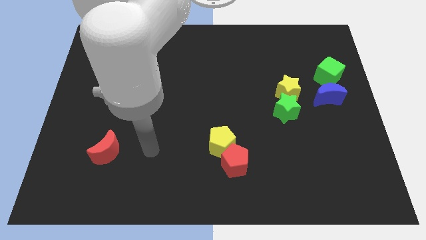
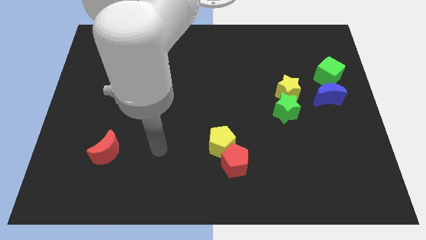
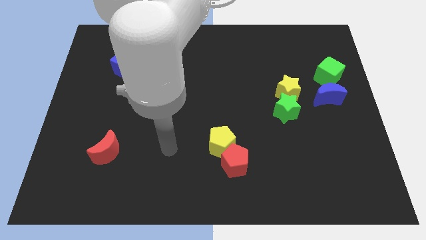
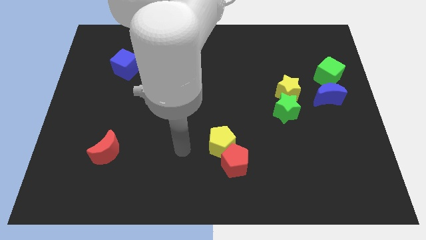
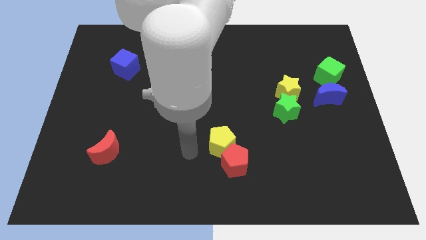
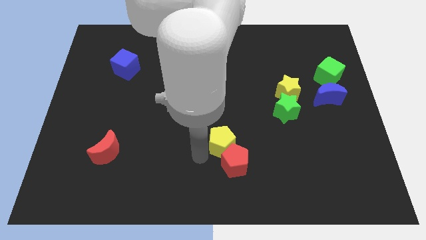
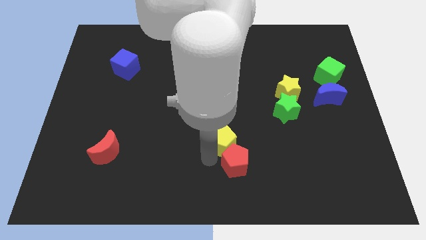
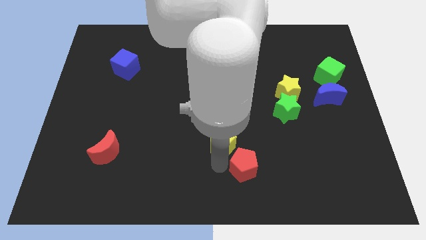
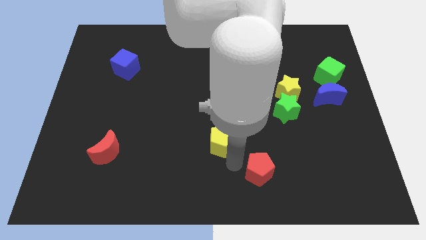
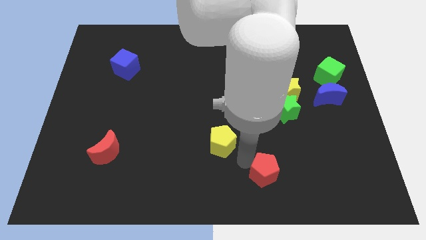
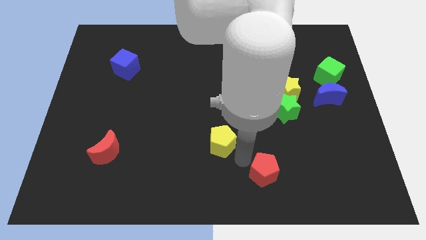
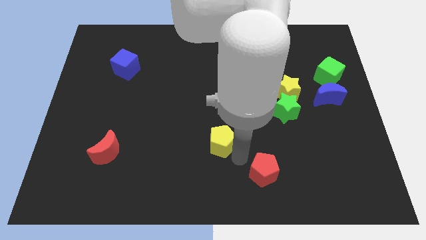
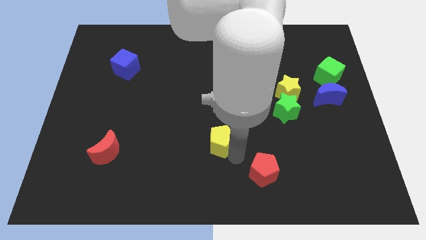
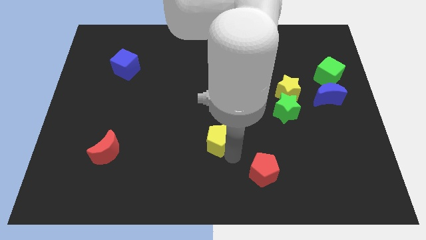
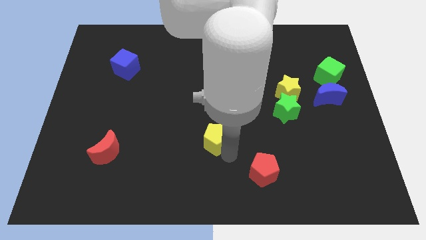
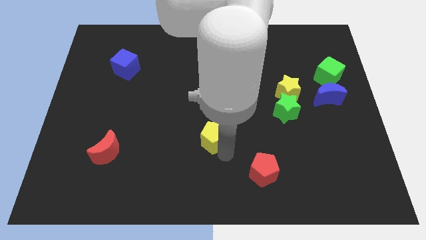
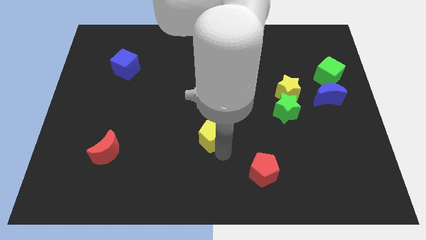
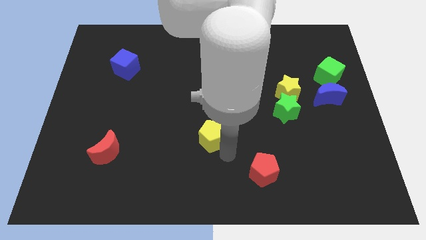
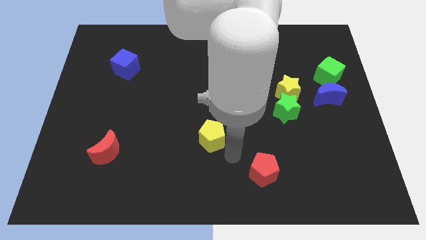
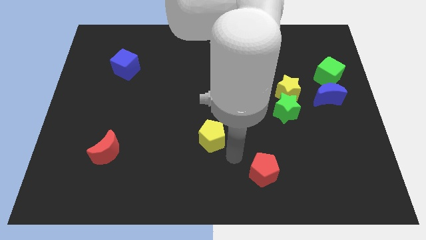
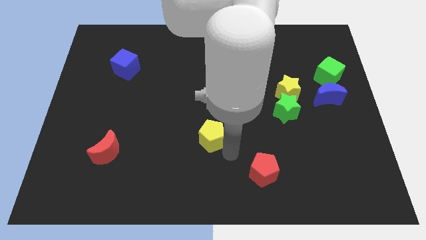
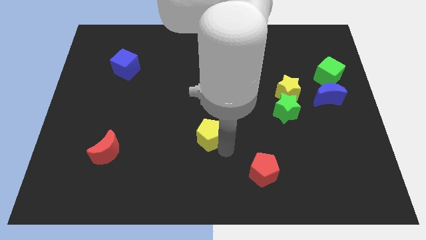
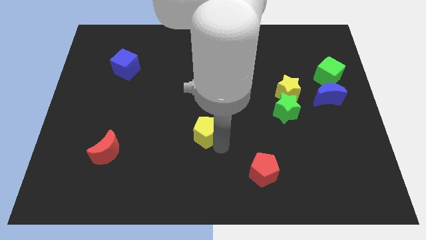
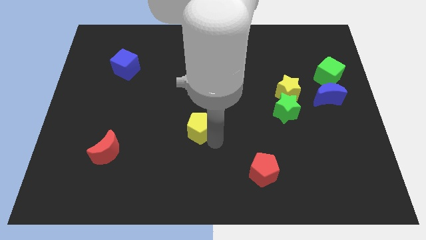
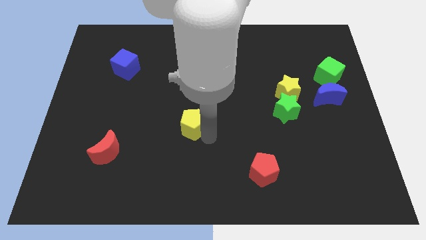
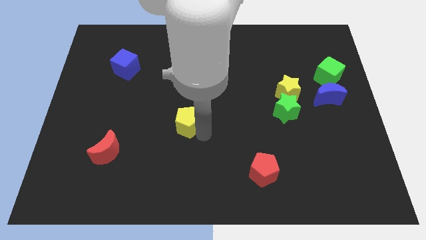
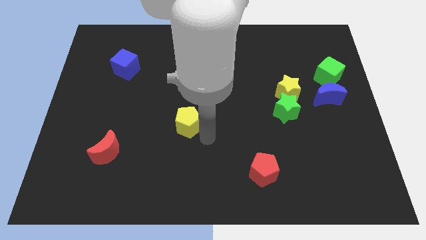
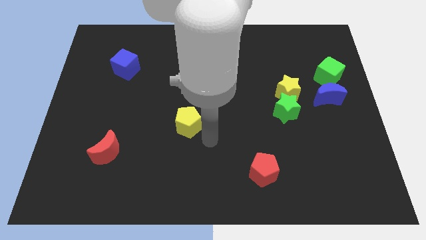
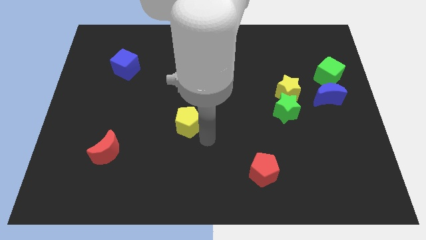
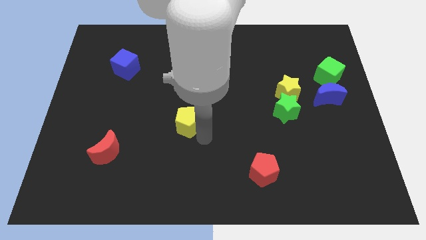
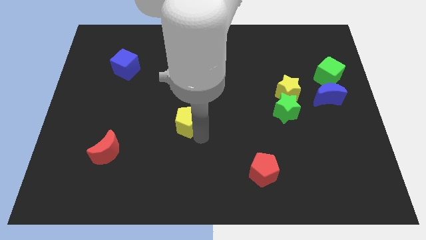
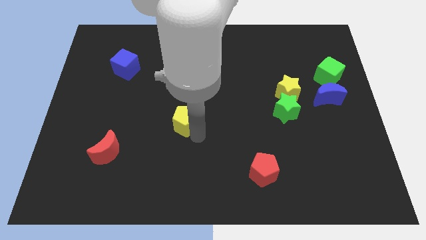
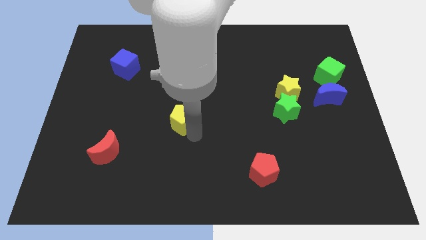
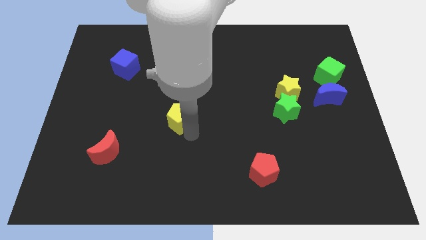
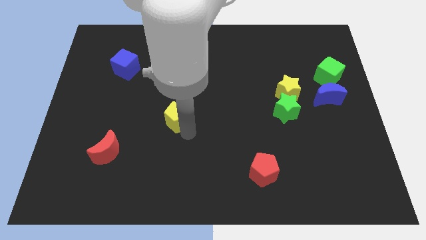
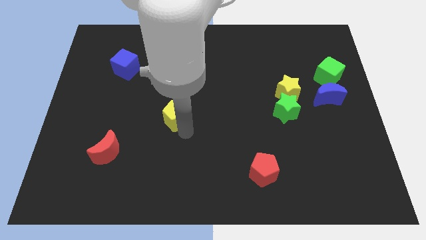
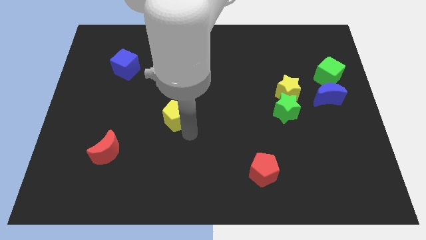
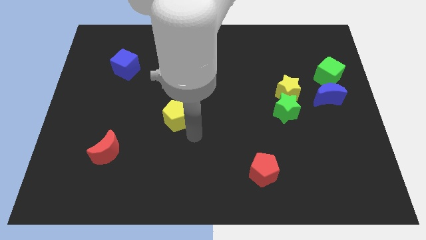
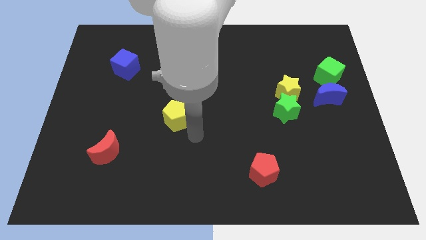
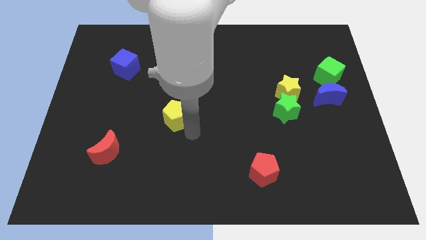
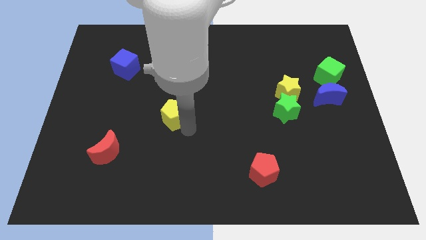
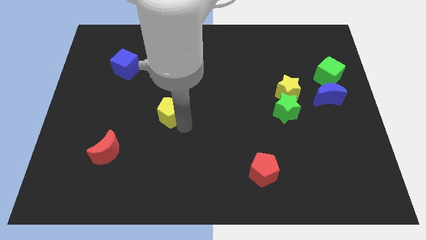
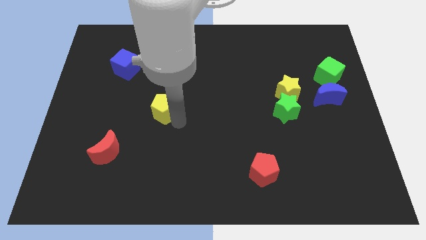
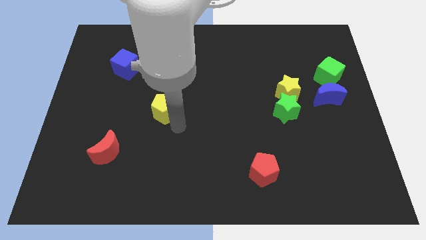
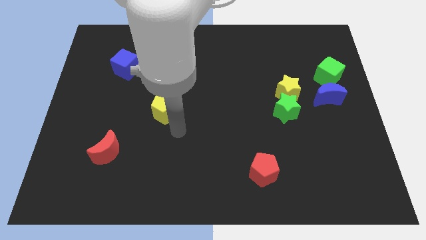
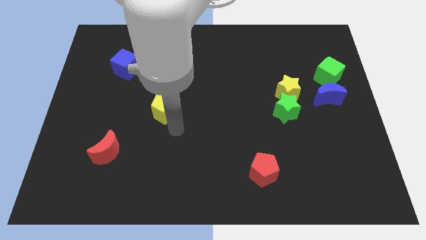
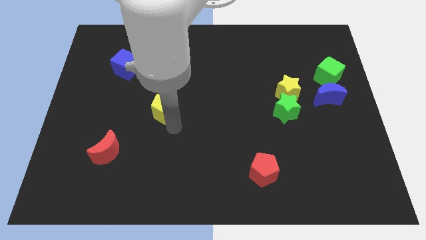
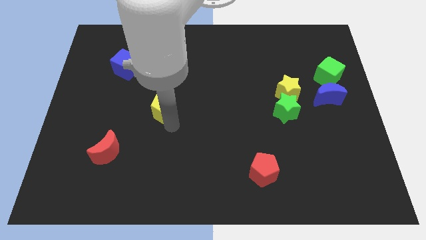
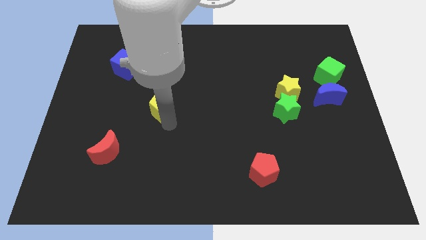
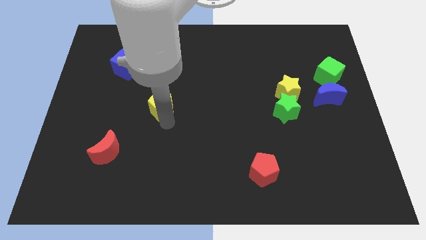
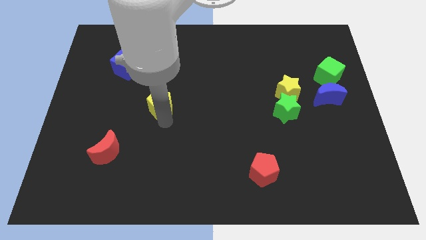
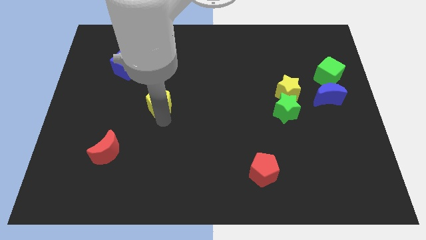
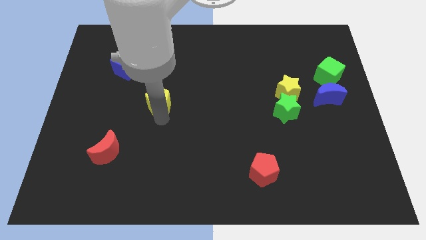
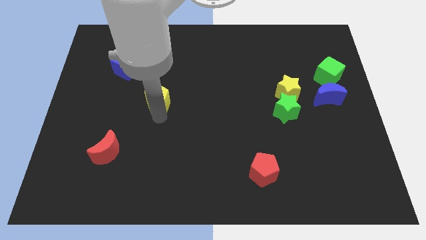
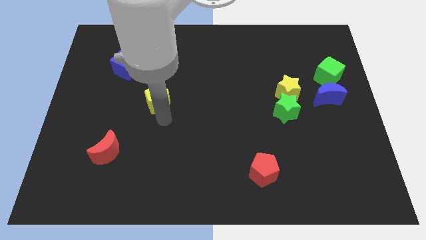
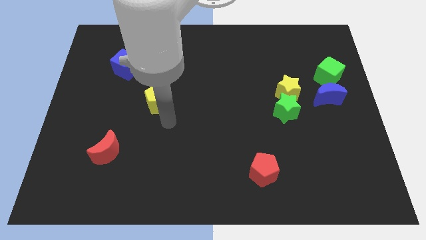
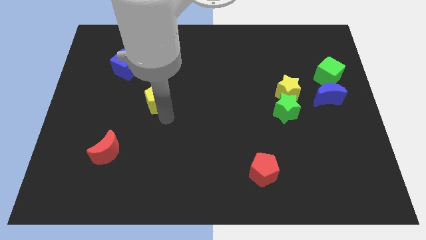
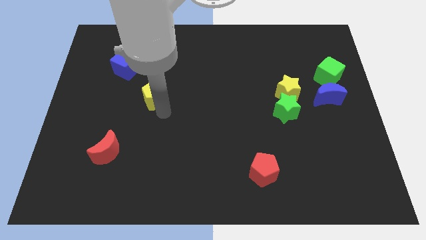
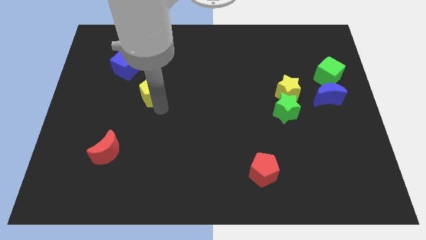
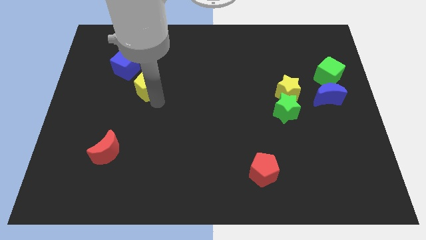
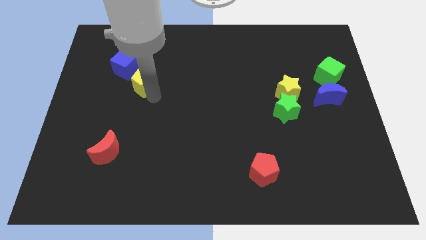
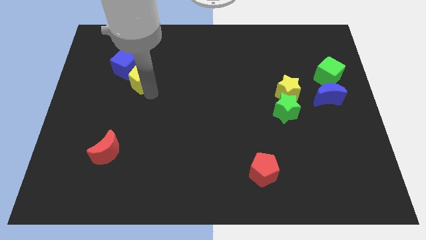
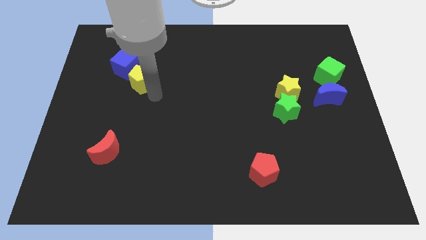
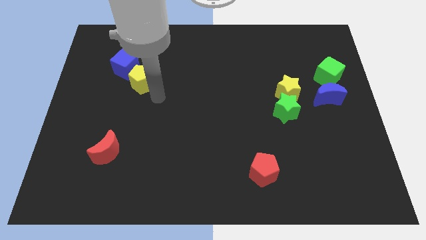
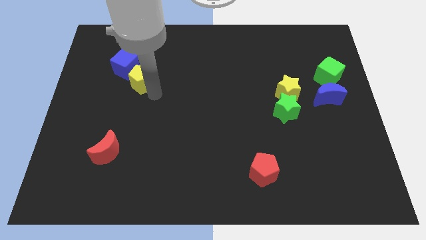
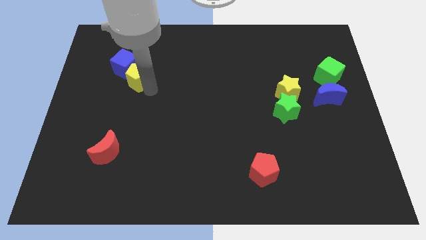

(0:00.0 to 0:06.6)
slide the yellow pentagon close to the blue cube

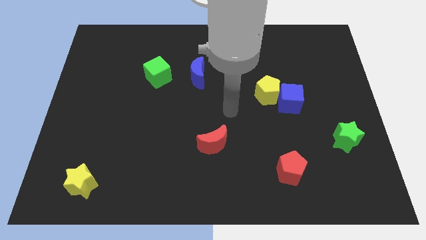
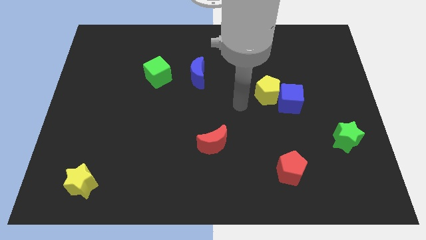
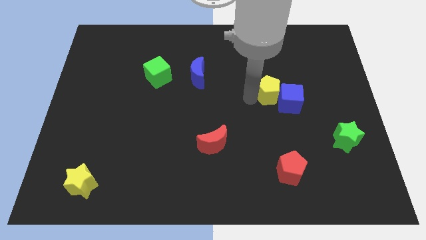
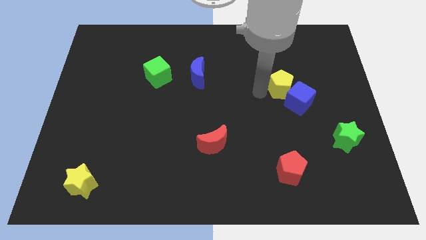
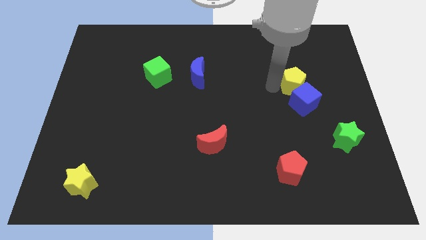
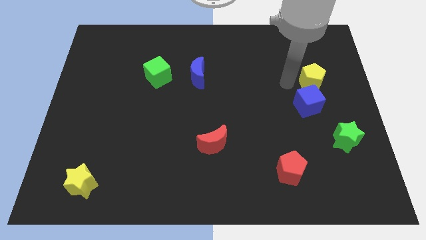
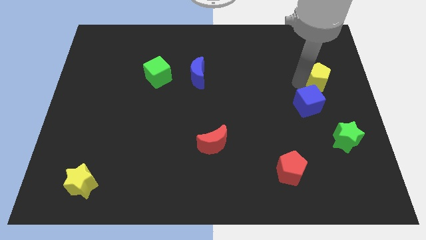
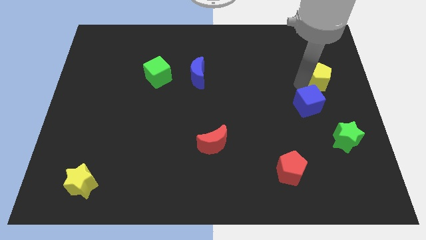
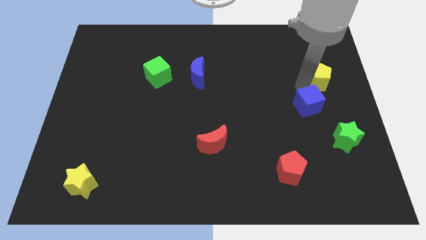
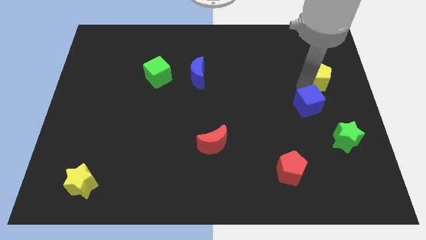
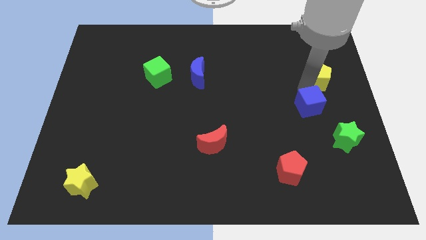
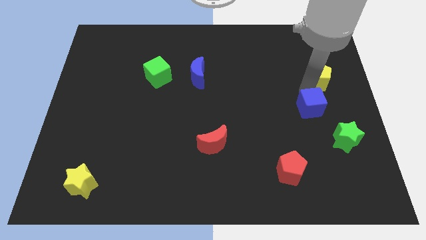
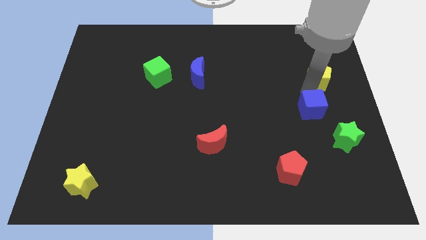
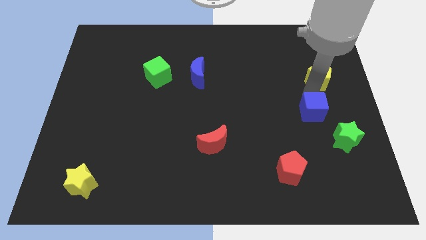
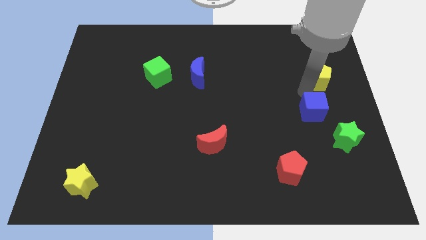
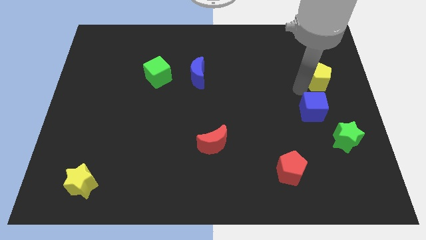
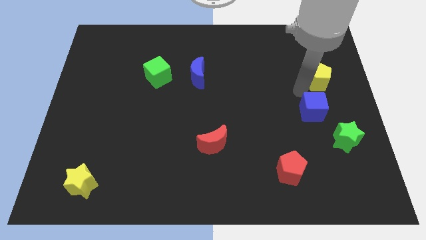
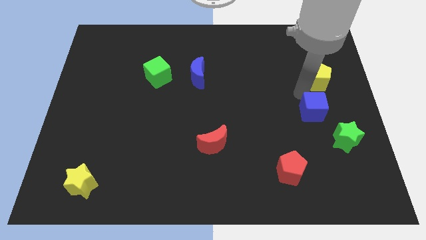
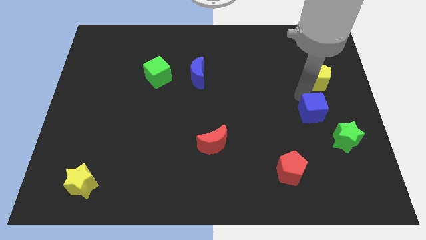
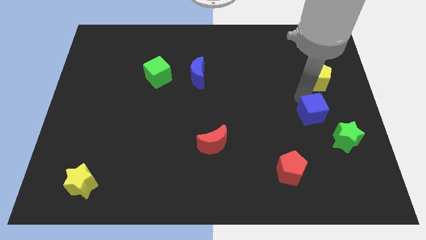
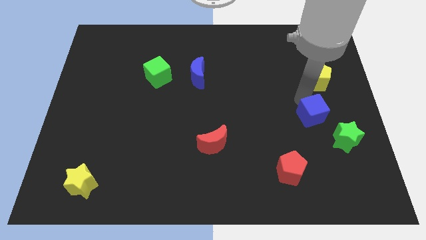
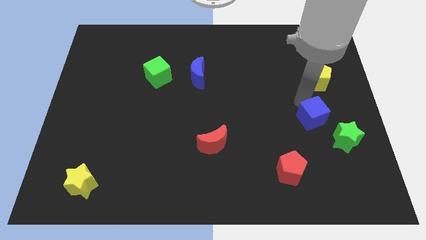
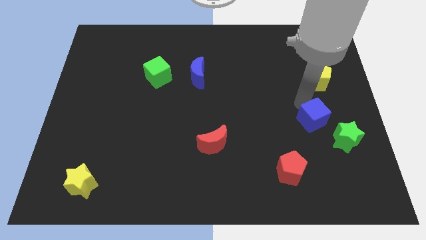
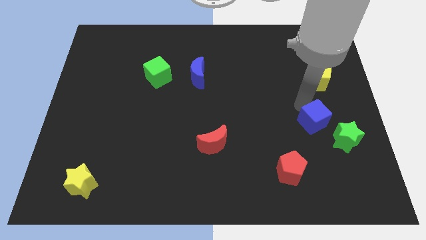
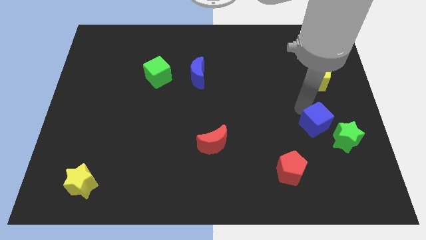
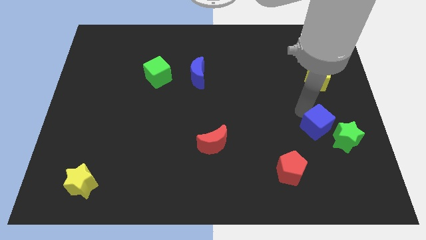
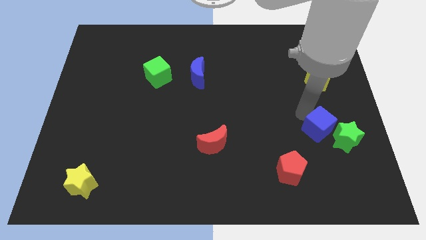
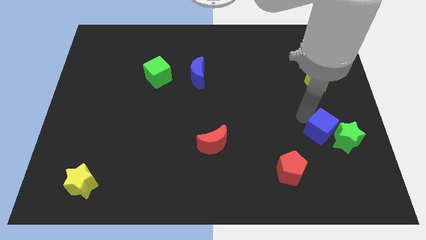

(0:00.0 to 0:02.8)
move the blue cube to the green star
